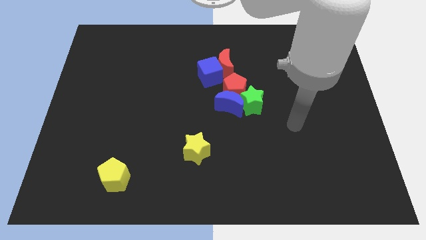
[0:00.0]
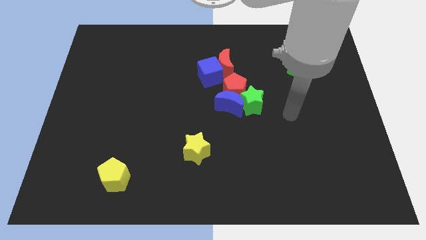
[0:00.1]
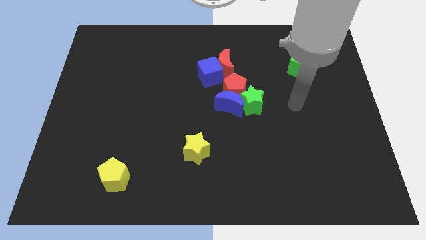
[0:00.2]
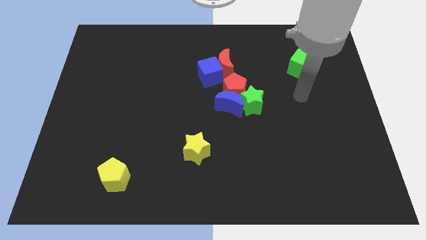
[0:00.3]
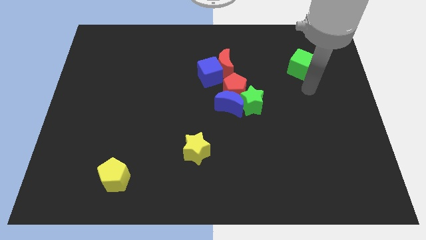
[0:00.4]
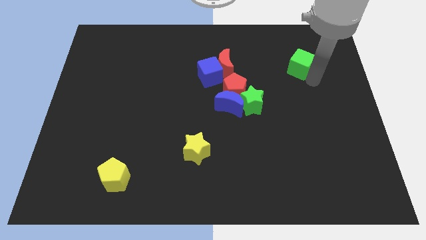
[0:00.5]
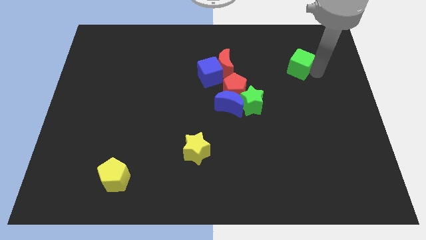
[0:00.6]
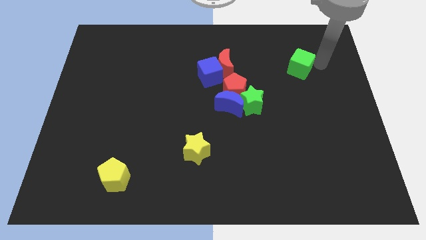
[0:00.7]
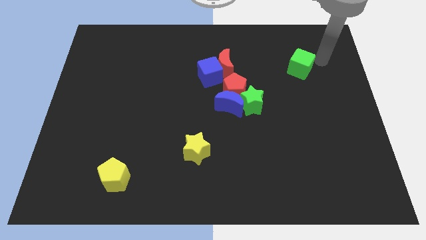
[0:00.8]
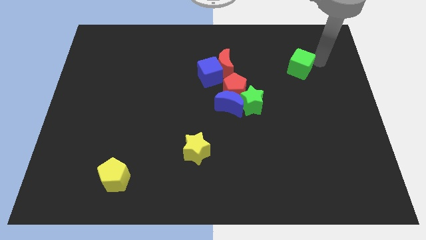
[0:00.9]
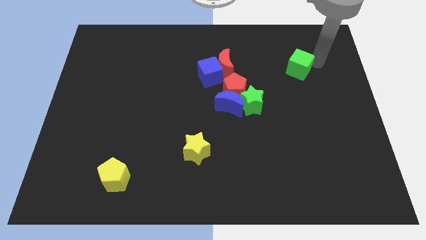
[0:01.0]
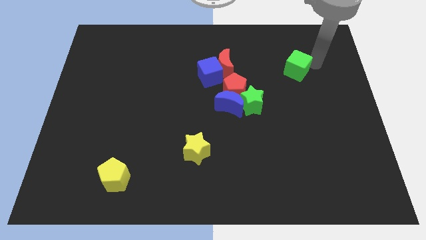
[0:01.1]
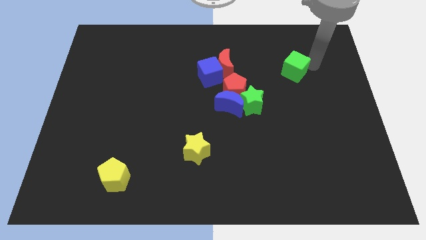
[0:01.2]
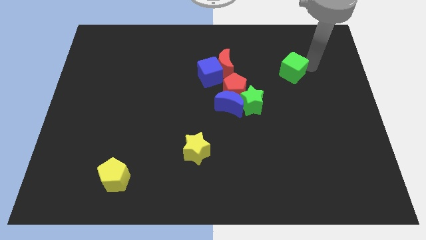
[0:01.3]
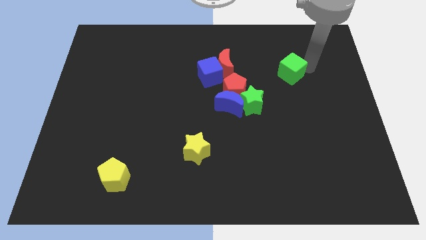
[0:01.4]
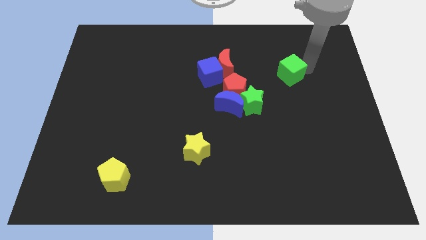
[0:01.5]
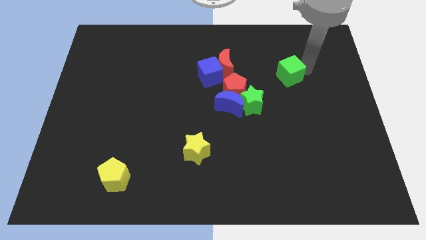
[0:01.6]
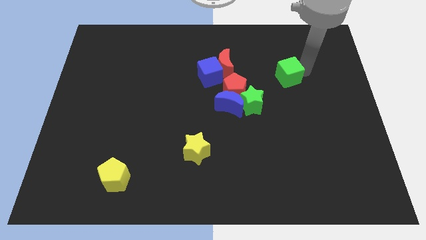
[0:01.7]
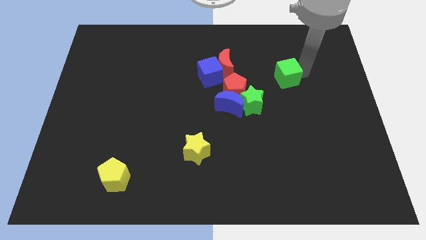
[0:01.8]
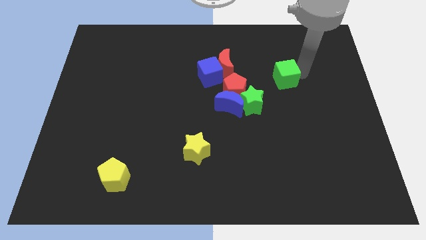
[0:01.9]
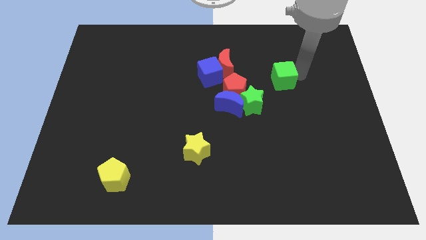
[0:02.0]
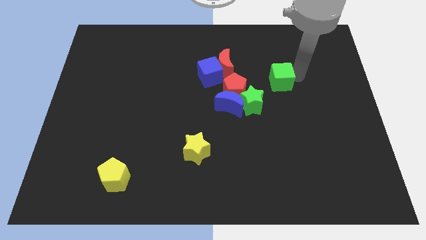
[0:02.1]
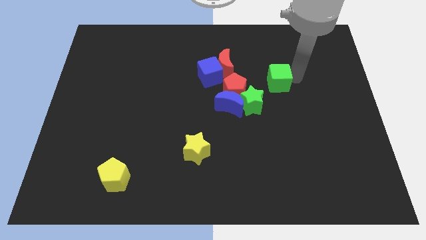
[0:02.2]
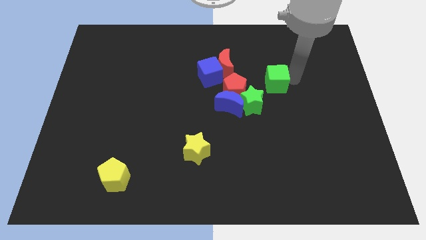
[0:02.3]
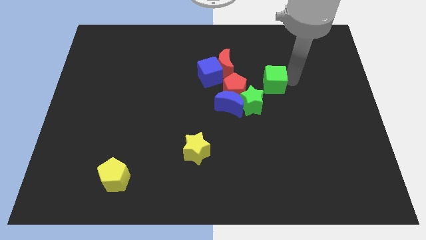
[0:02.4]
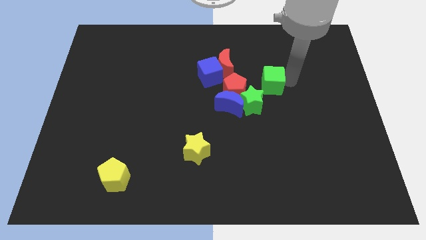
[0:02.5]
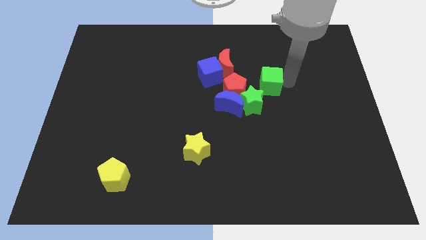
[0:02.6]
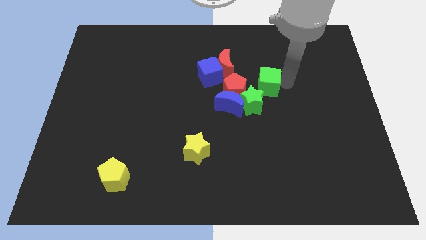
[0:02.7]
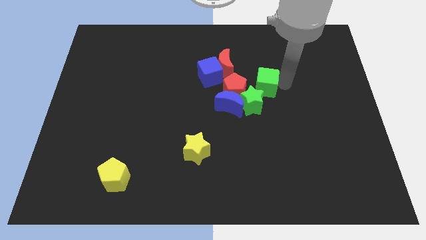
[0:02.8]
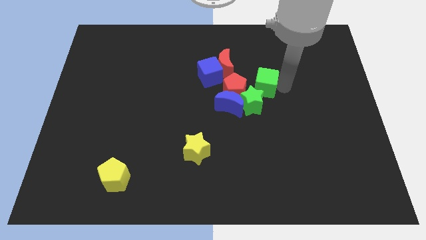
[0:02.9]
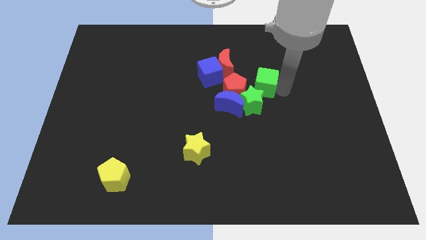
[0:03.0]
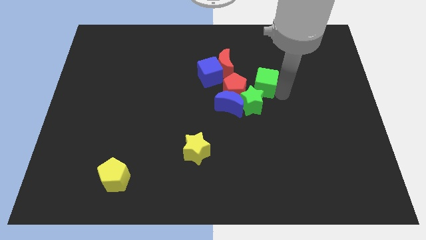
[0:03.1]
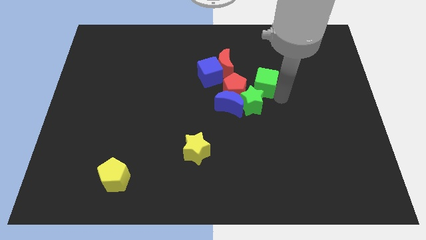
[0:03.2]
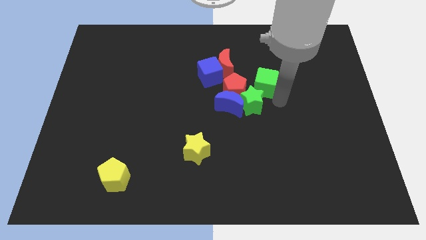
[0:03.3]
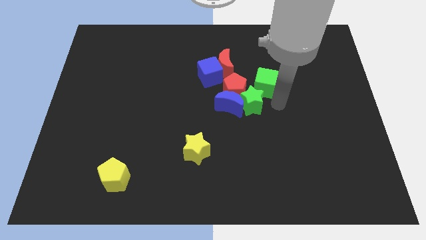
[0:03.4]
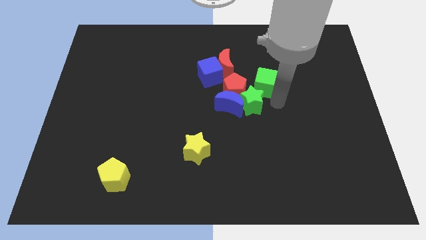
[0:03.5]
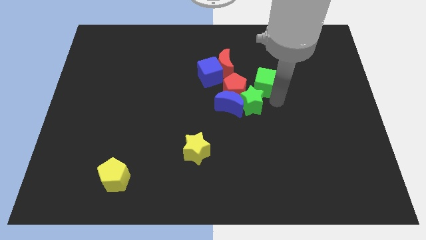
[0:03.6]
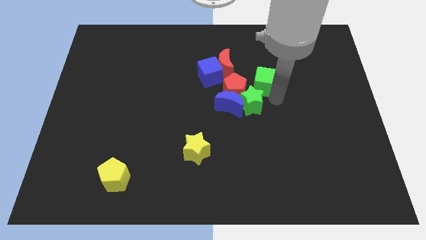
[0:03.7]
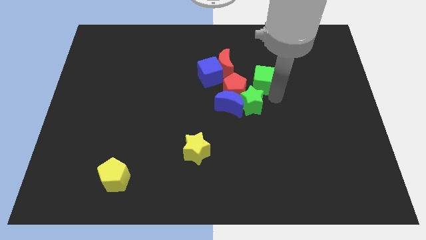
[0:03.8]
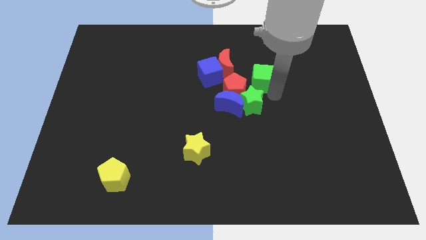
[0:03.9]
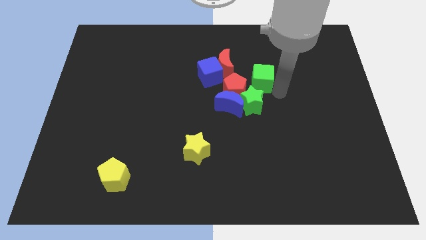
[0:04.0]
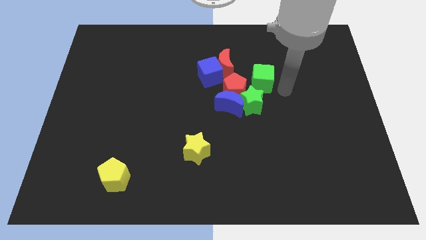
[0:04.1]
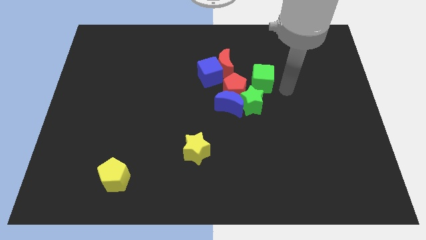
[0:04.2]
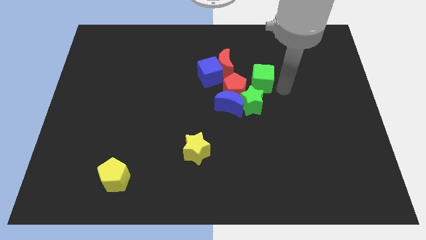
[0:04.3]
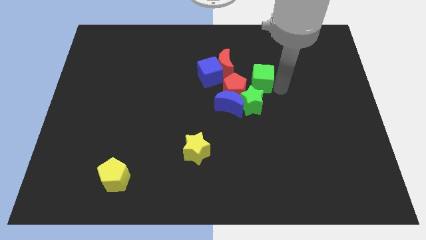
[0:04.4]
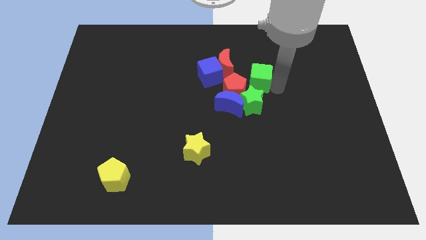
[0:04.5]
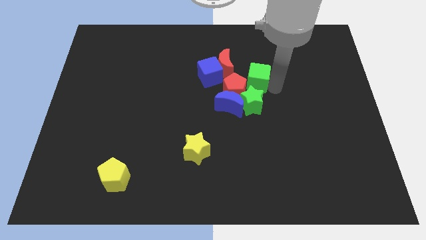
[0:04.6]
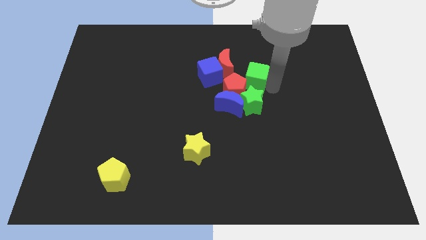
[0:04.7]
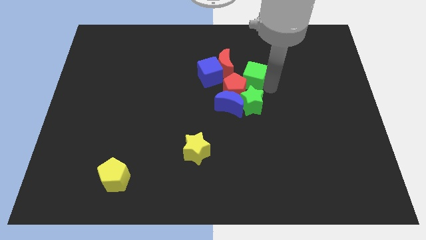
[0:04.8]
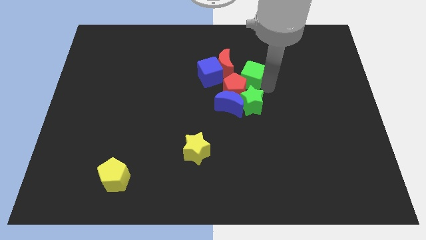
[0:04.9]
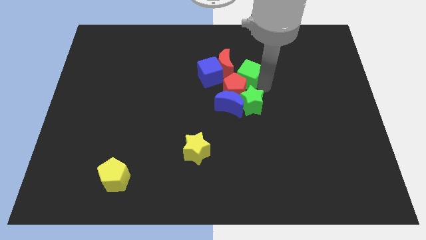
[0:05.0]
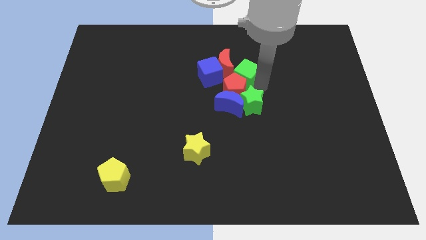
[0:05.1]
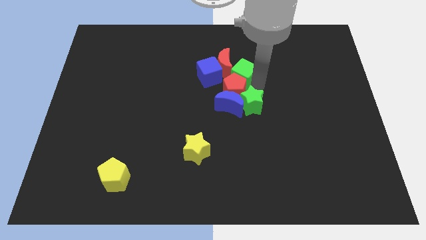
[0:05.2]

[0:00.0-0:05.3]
put the green cube close to the red moon

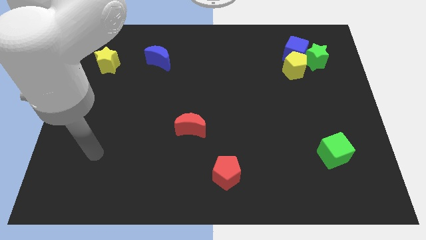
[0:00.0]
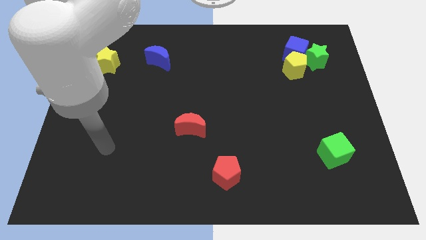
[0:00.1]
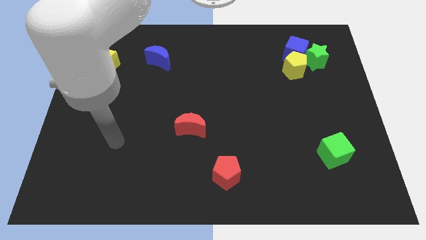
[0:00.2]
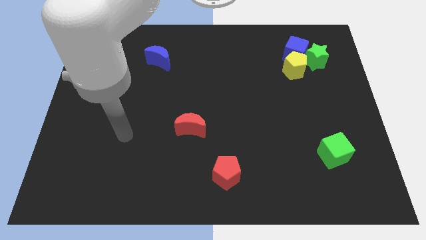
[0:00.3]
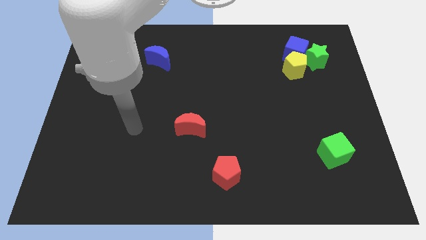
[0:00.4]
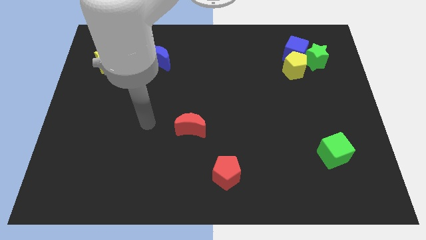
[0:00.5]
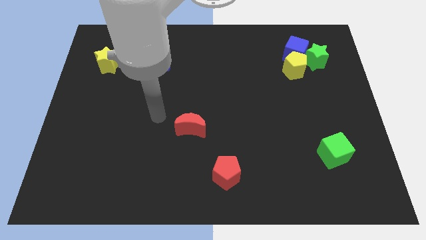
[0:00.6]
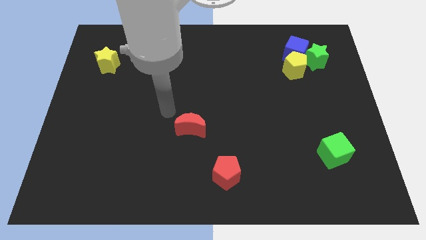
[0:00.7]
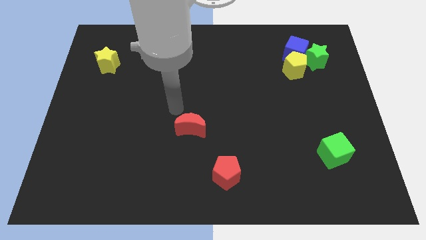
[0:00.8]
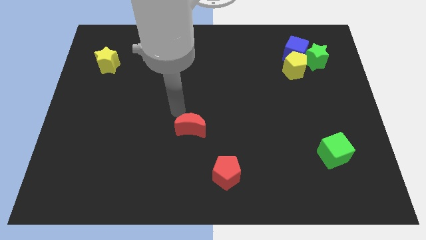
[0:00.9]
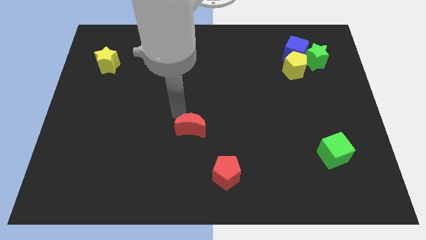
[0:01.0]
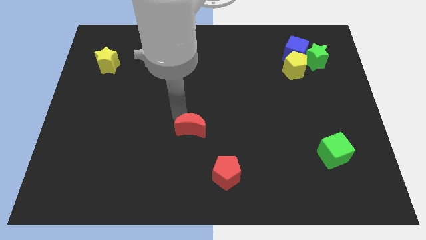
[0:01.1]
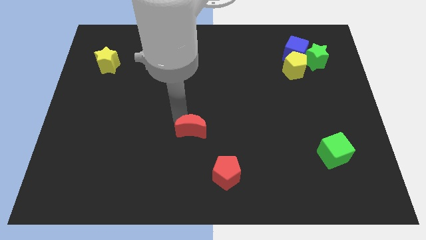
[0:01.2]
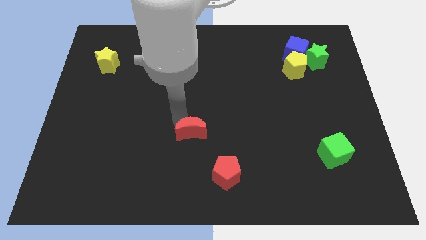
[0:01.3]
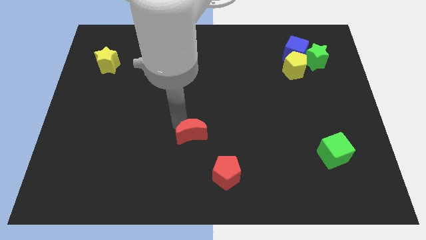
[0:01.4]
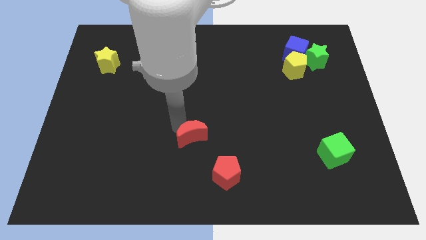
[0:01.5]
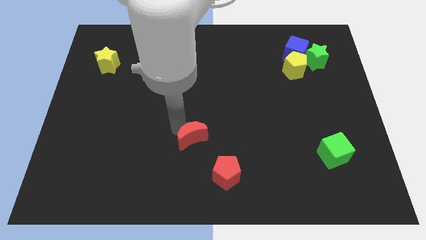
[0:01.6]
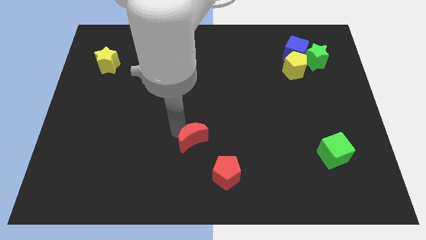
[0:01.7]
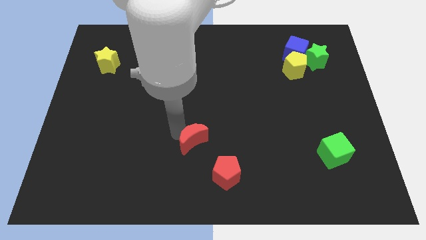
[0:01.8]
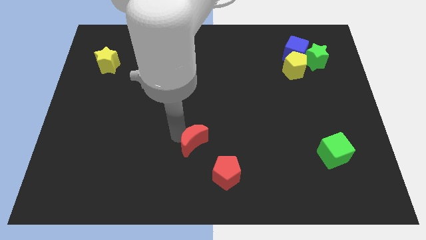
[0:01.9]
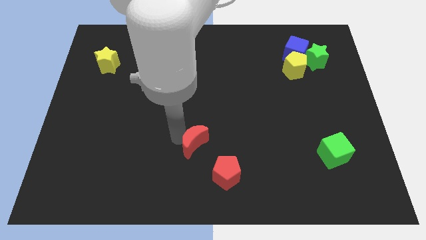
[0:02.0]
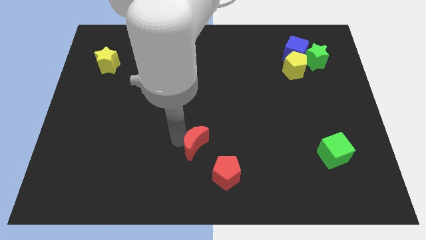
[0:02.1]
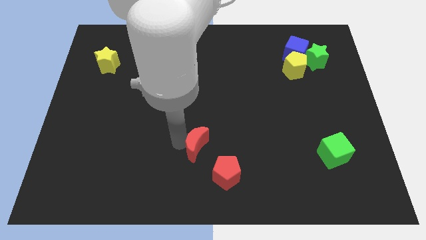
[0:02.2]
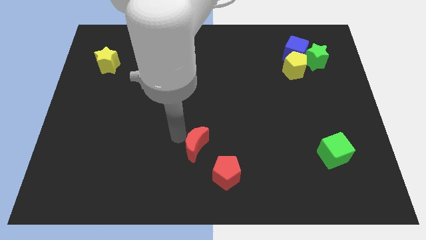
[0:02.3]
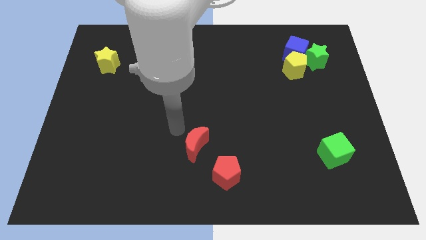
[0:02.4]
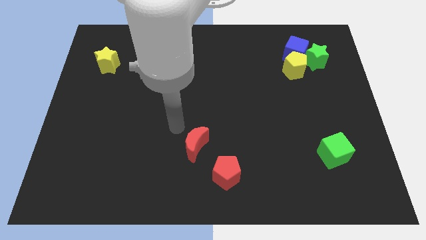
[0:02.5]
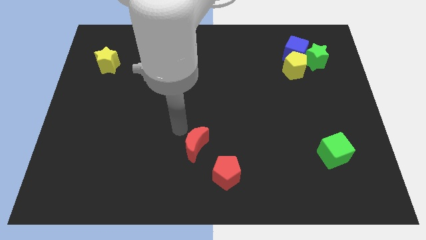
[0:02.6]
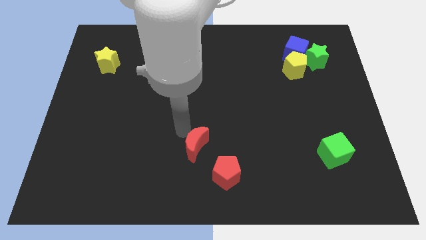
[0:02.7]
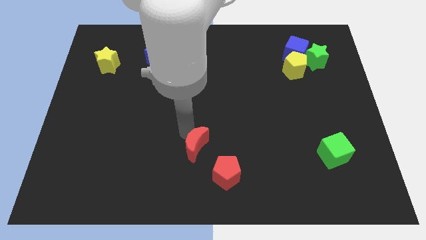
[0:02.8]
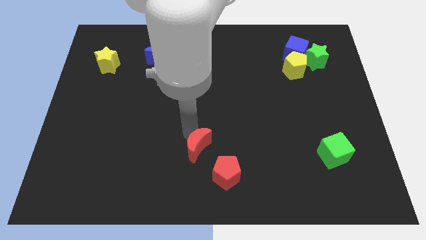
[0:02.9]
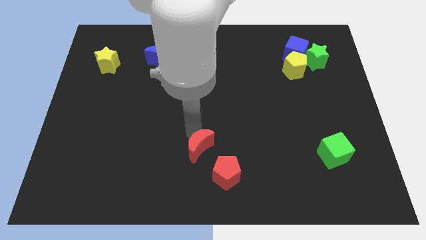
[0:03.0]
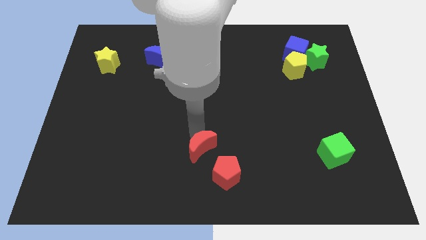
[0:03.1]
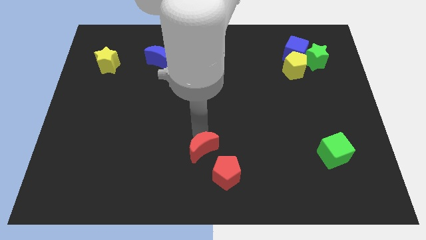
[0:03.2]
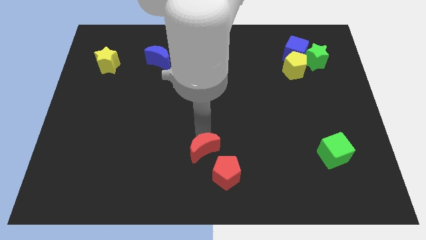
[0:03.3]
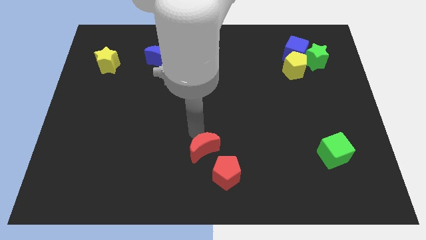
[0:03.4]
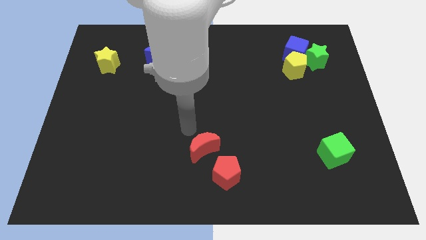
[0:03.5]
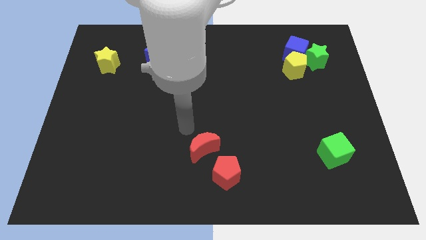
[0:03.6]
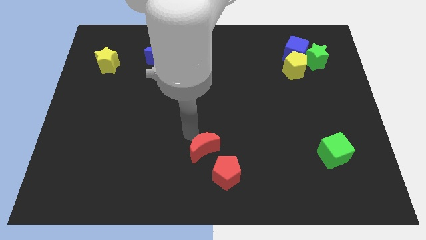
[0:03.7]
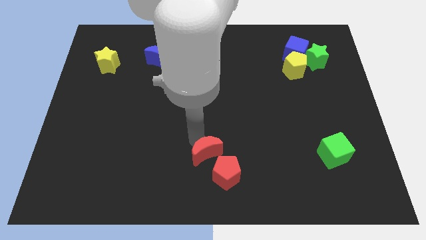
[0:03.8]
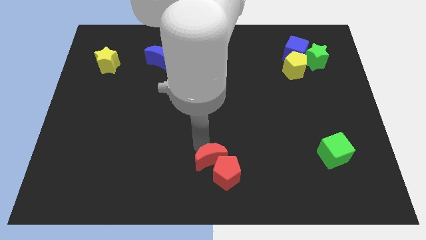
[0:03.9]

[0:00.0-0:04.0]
push the red moon close to the red pentagon
